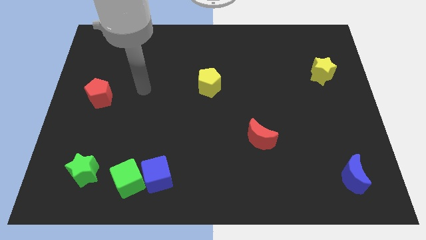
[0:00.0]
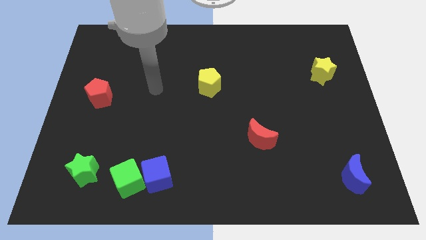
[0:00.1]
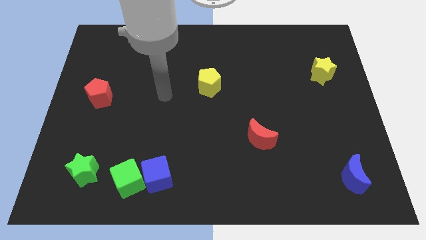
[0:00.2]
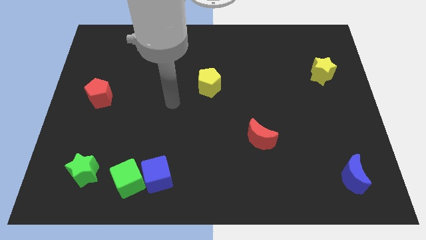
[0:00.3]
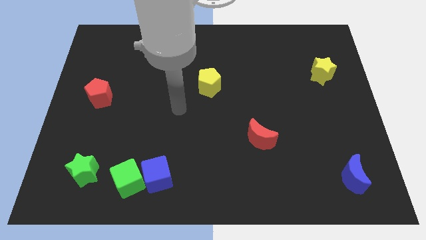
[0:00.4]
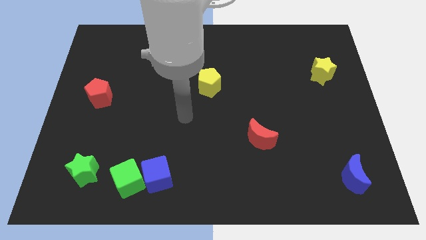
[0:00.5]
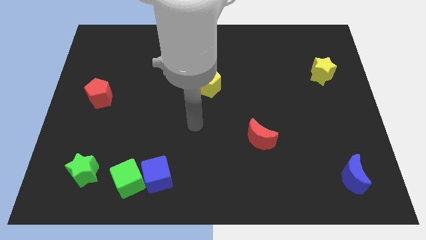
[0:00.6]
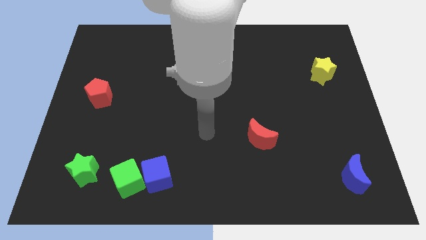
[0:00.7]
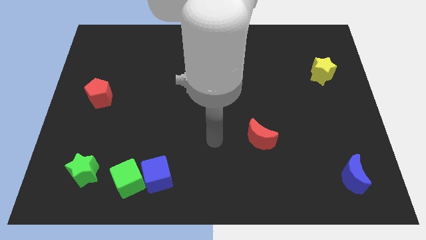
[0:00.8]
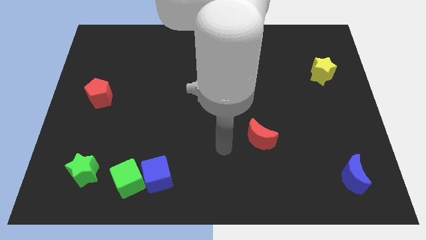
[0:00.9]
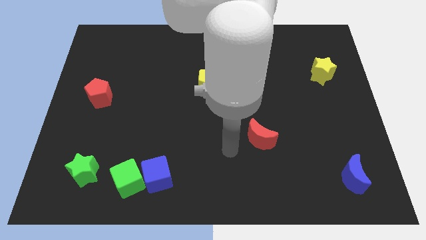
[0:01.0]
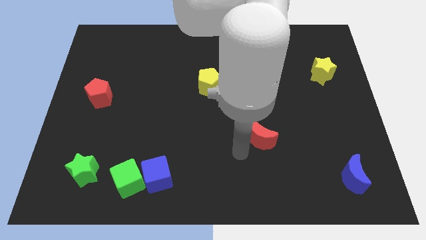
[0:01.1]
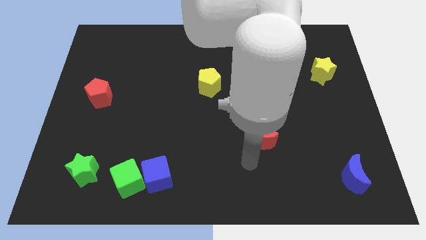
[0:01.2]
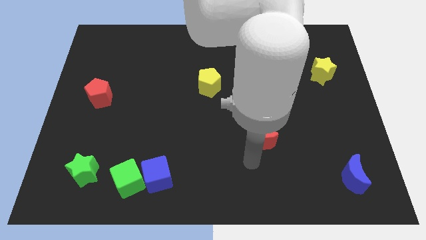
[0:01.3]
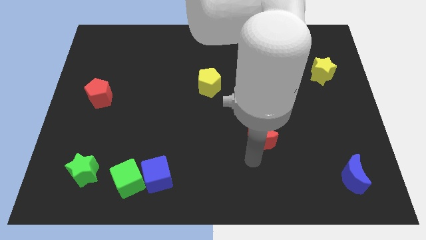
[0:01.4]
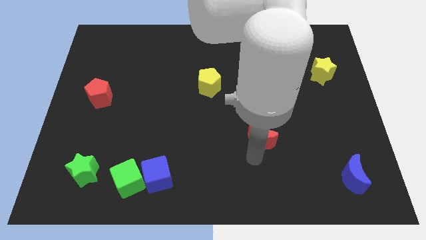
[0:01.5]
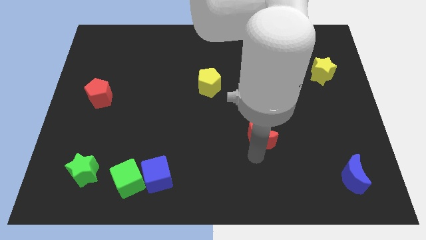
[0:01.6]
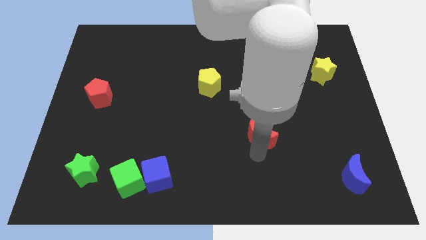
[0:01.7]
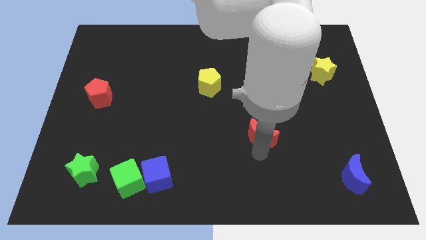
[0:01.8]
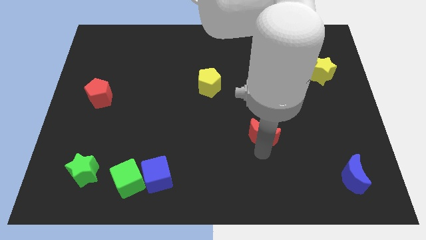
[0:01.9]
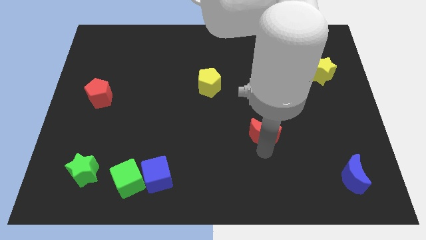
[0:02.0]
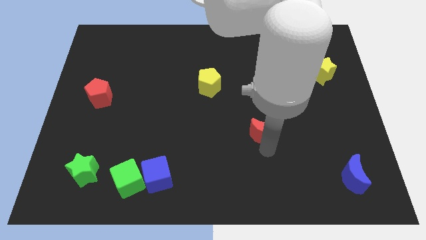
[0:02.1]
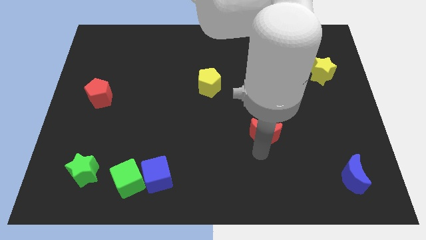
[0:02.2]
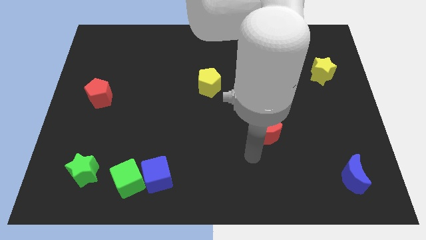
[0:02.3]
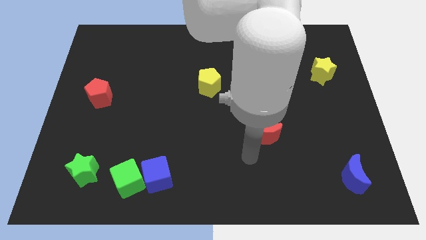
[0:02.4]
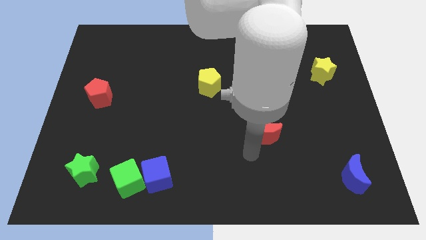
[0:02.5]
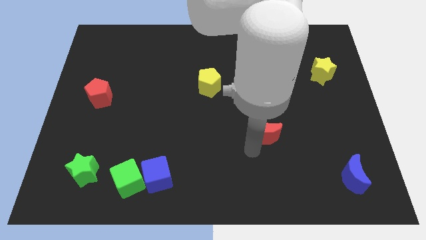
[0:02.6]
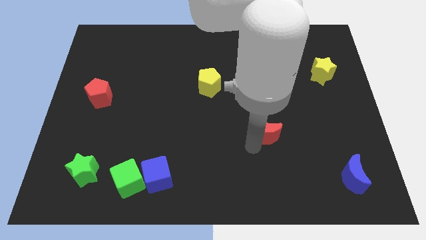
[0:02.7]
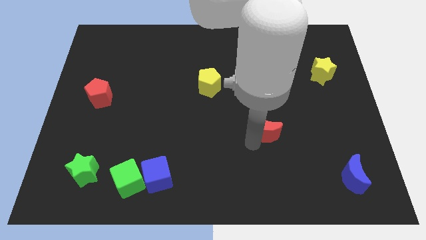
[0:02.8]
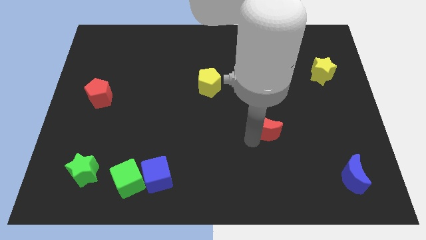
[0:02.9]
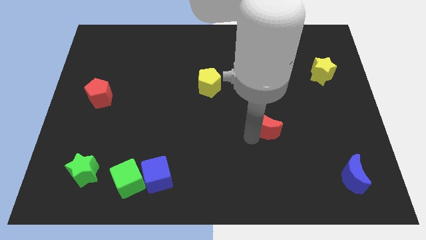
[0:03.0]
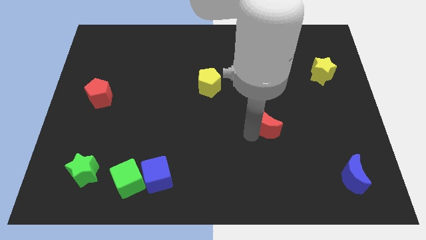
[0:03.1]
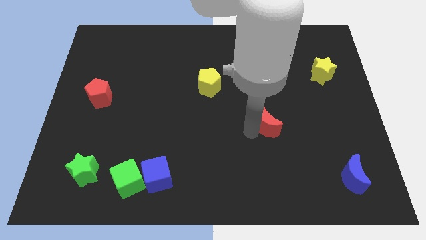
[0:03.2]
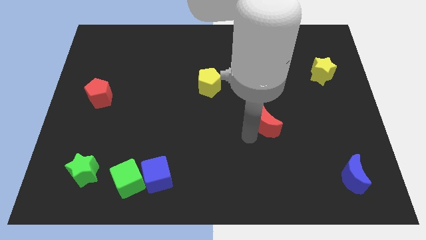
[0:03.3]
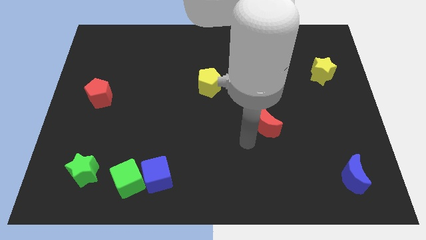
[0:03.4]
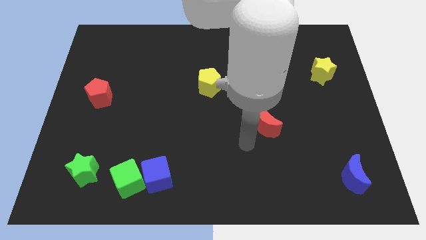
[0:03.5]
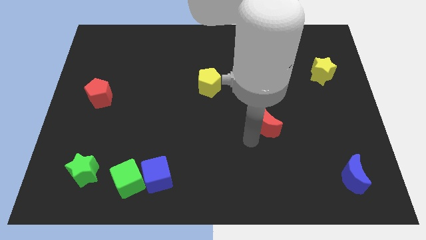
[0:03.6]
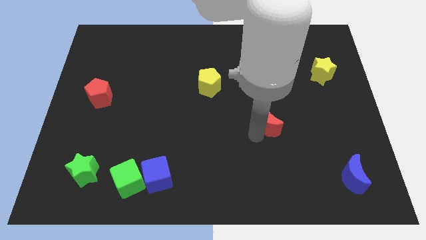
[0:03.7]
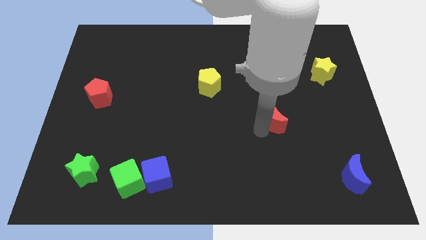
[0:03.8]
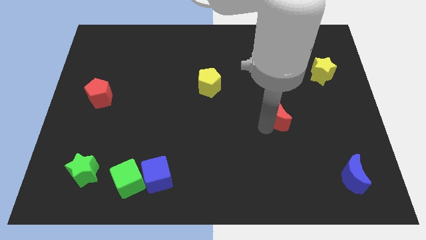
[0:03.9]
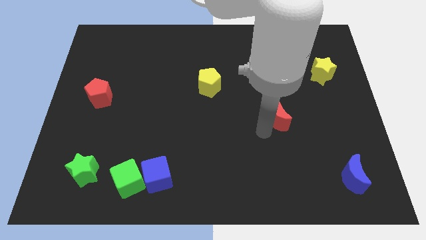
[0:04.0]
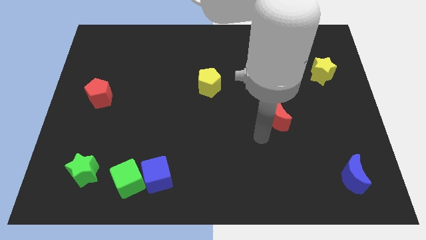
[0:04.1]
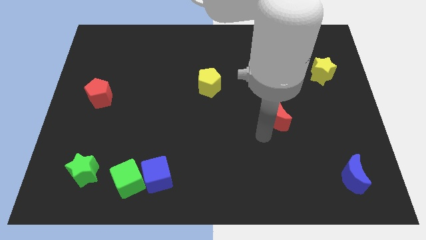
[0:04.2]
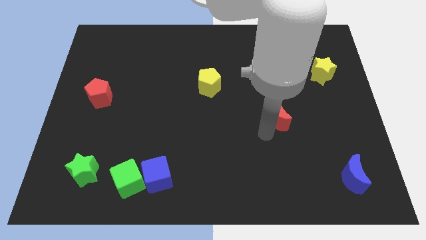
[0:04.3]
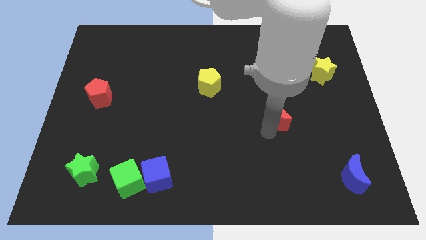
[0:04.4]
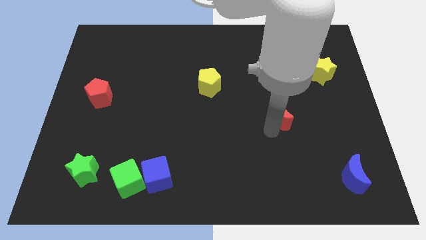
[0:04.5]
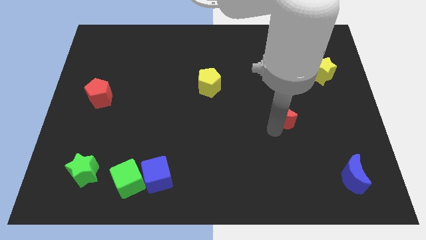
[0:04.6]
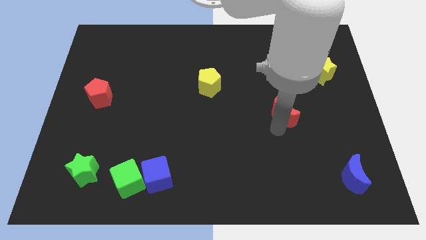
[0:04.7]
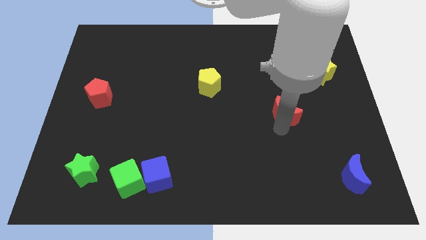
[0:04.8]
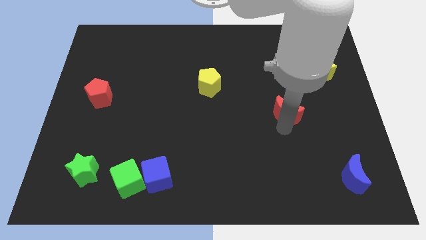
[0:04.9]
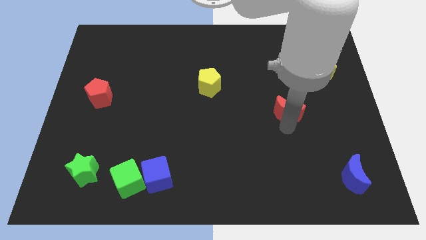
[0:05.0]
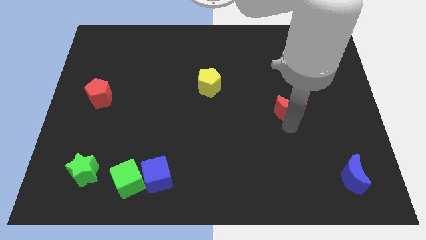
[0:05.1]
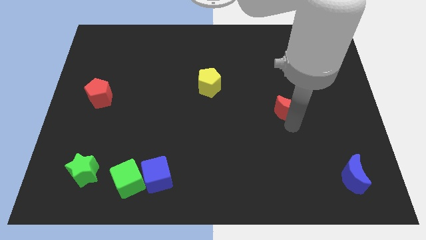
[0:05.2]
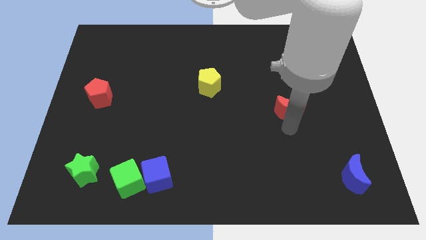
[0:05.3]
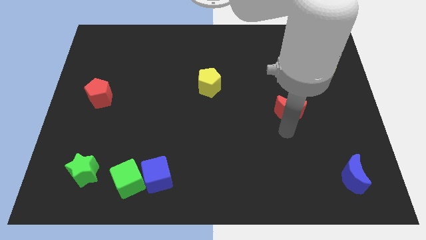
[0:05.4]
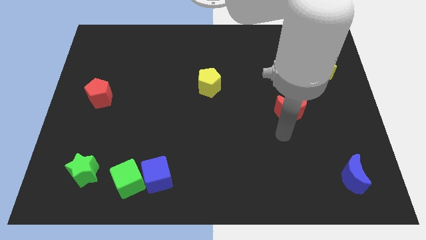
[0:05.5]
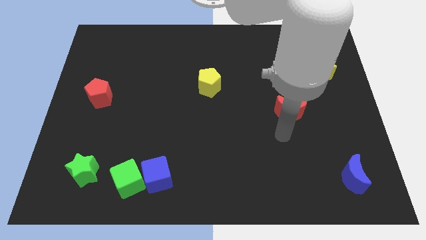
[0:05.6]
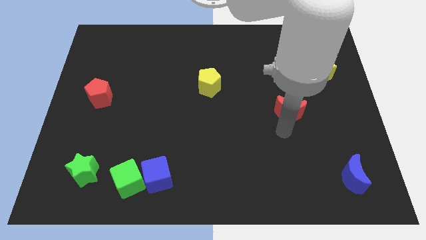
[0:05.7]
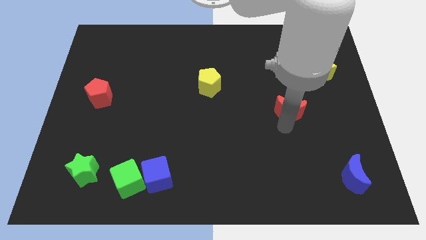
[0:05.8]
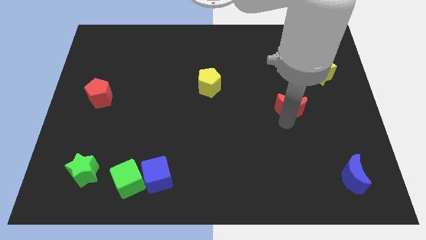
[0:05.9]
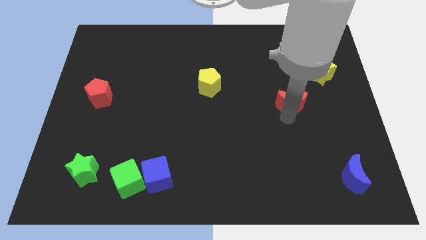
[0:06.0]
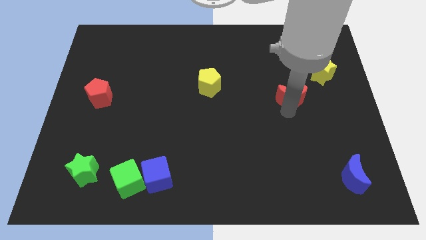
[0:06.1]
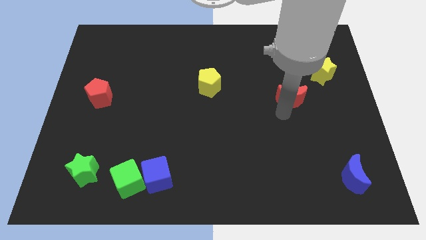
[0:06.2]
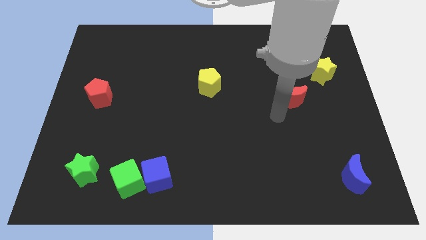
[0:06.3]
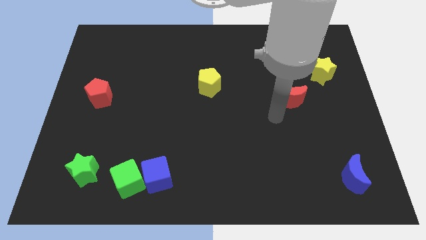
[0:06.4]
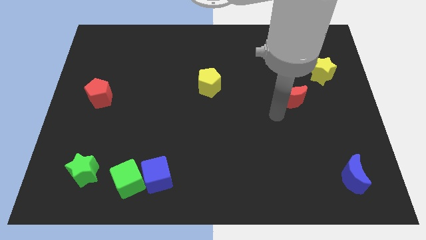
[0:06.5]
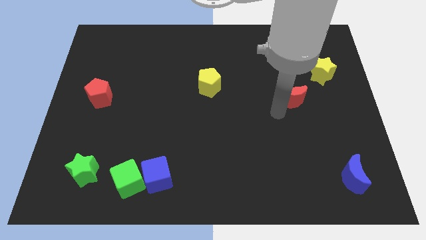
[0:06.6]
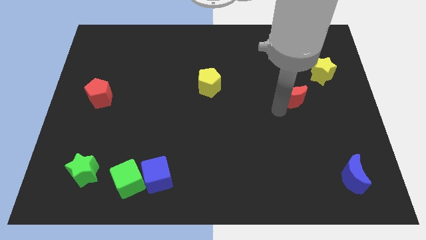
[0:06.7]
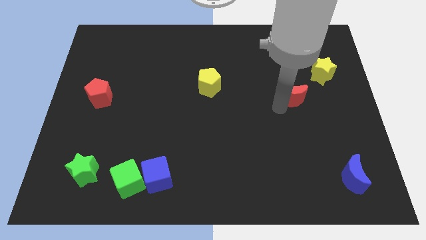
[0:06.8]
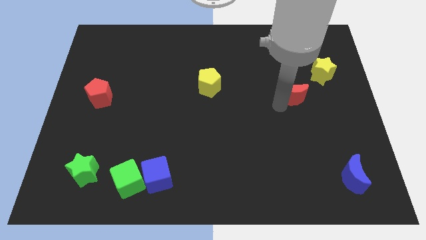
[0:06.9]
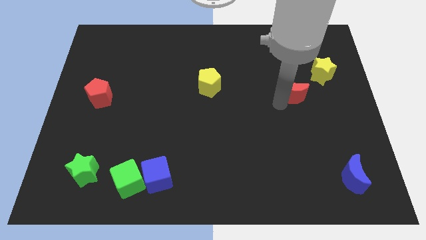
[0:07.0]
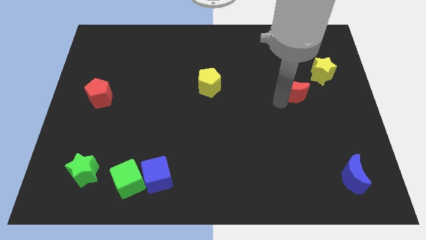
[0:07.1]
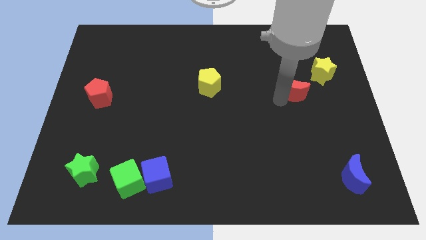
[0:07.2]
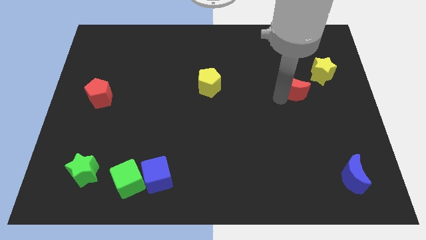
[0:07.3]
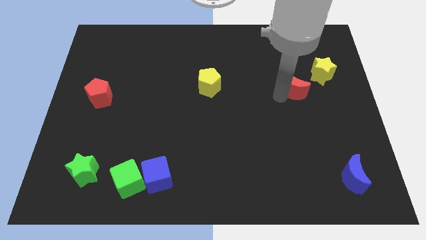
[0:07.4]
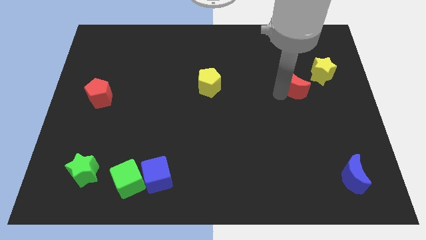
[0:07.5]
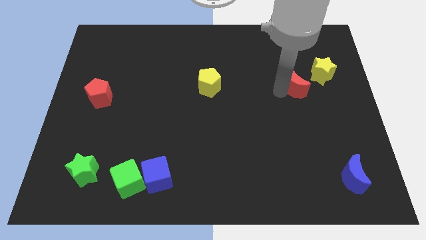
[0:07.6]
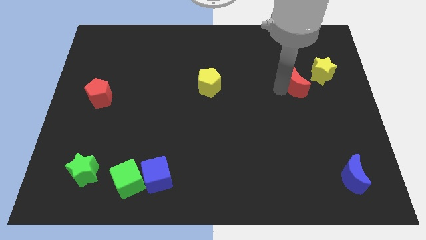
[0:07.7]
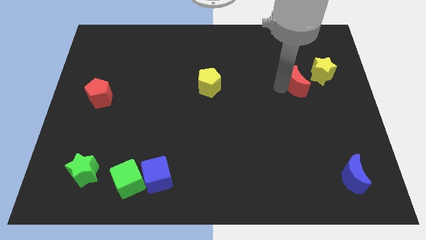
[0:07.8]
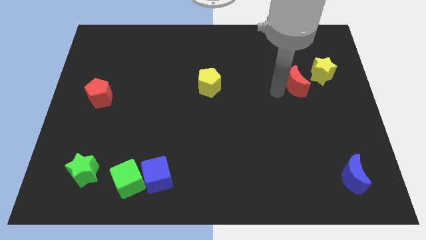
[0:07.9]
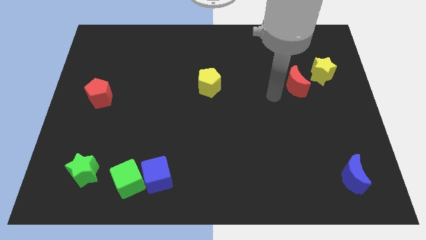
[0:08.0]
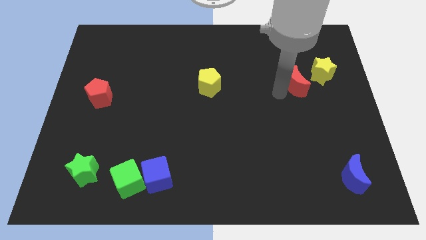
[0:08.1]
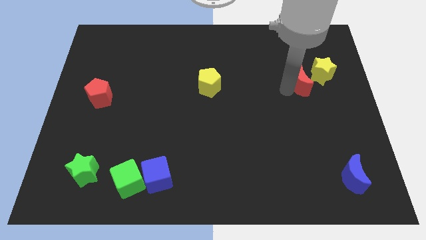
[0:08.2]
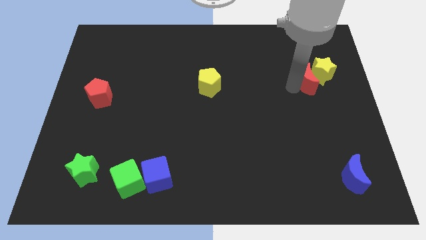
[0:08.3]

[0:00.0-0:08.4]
move the red moon next to the yellow star
